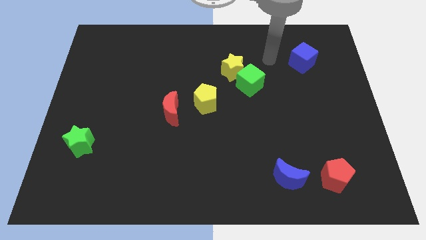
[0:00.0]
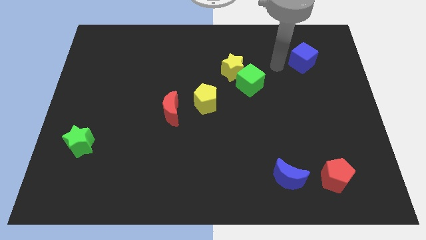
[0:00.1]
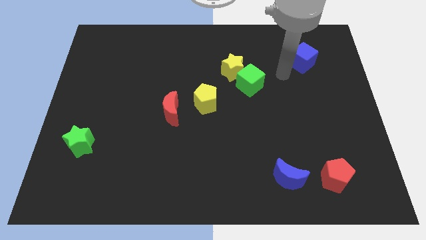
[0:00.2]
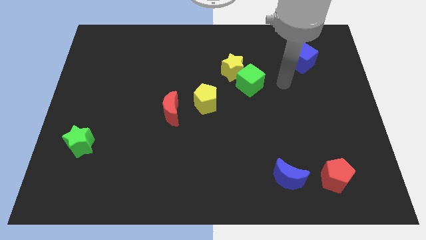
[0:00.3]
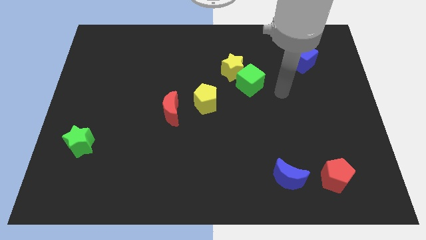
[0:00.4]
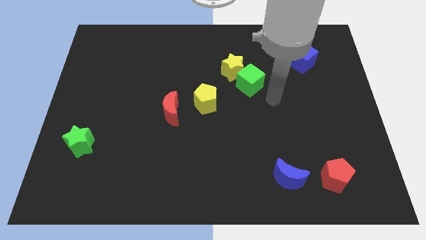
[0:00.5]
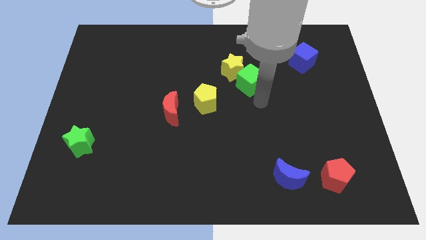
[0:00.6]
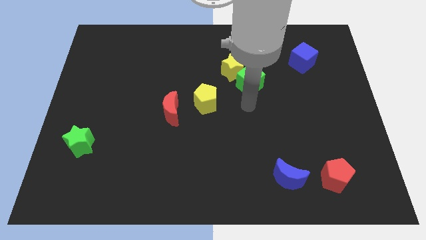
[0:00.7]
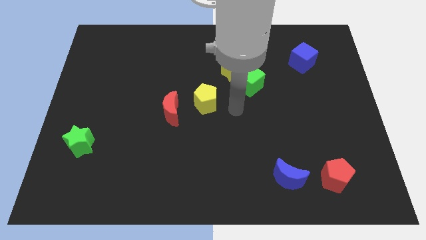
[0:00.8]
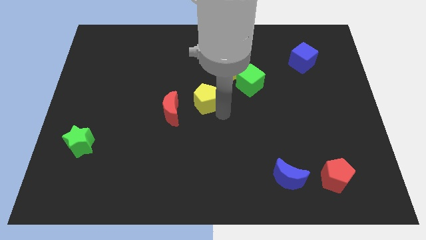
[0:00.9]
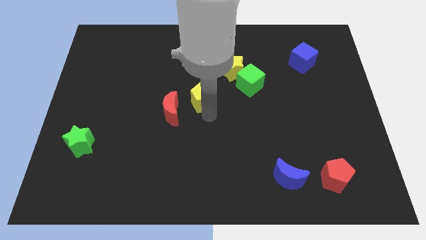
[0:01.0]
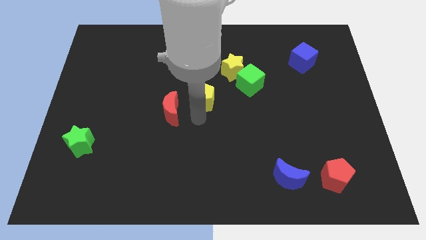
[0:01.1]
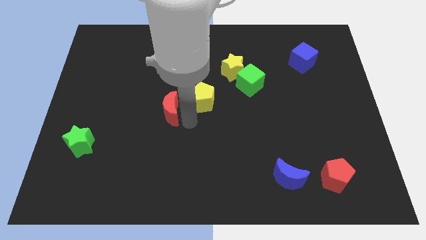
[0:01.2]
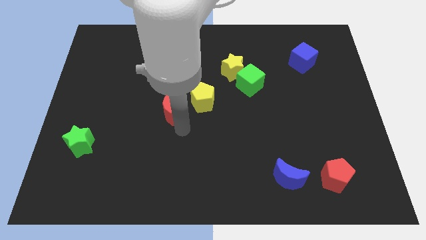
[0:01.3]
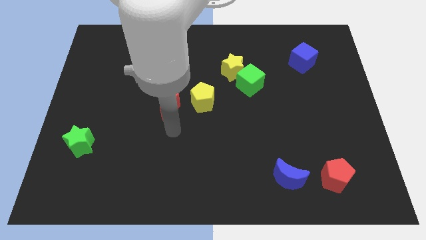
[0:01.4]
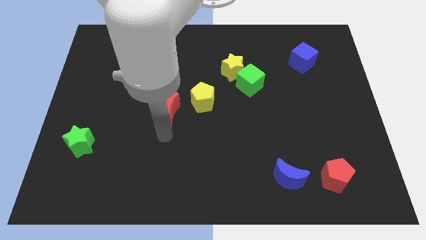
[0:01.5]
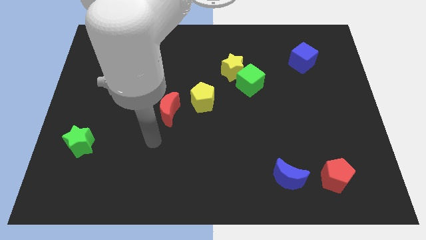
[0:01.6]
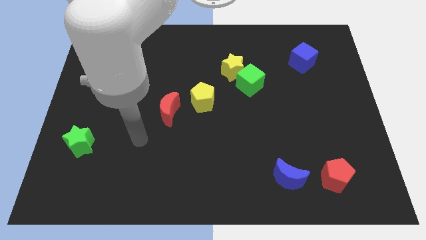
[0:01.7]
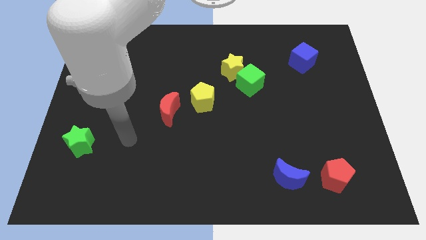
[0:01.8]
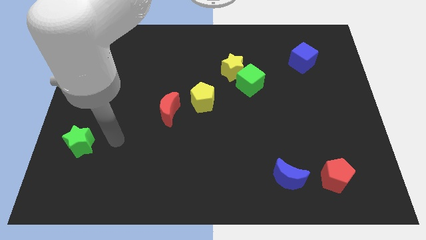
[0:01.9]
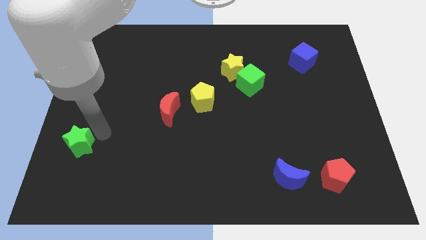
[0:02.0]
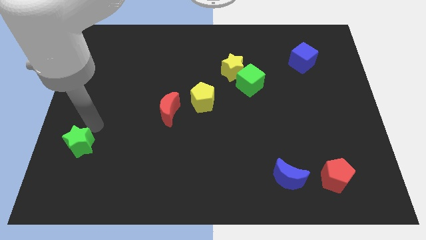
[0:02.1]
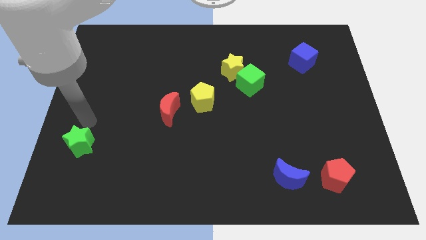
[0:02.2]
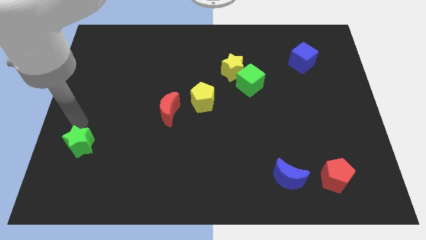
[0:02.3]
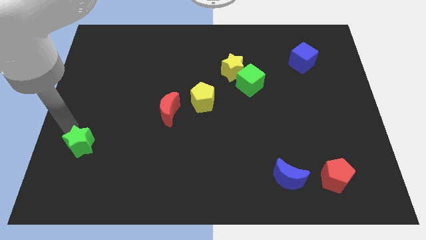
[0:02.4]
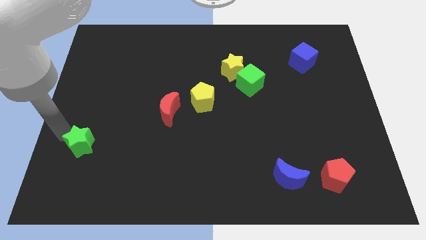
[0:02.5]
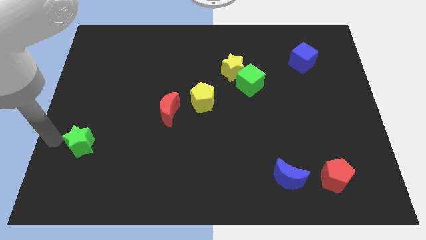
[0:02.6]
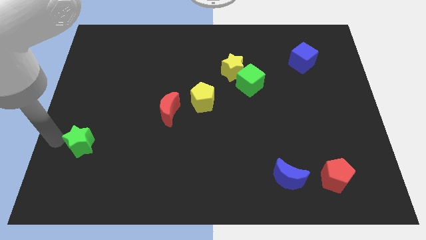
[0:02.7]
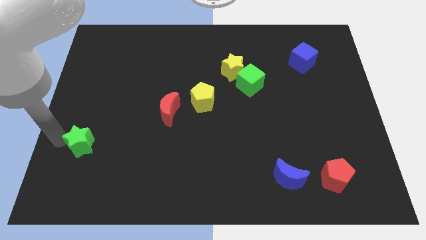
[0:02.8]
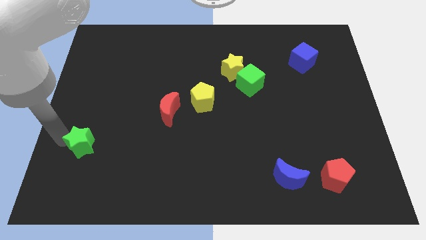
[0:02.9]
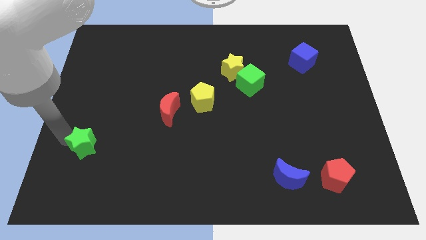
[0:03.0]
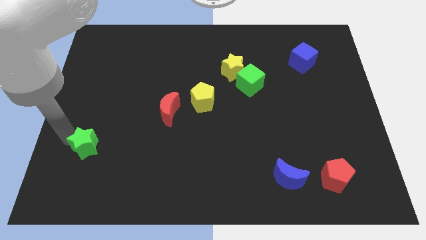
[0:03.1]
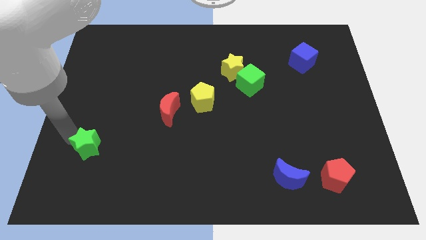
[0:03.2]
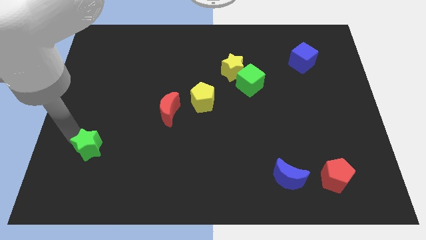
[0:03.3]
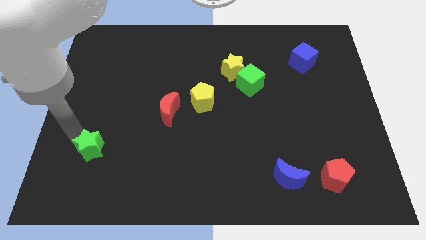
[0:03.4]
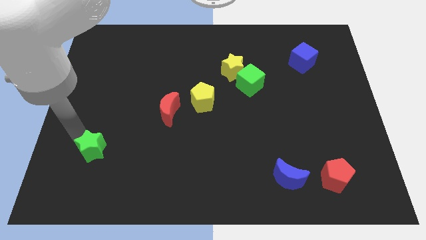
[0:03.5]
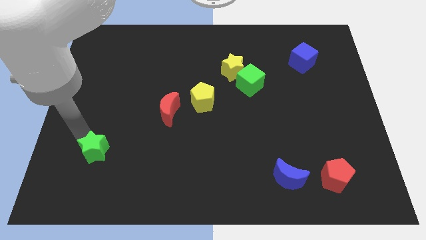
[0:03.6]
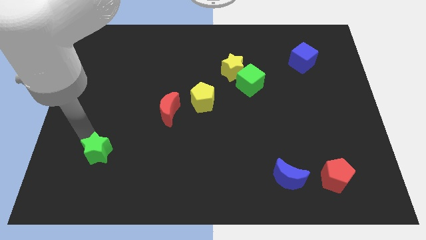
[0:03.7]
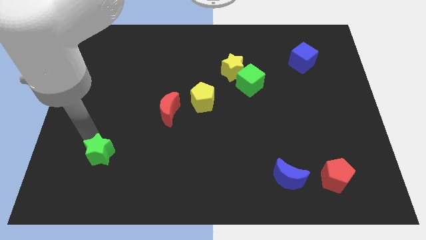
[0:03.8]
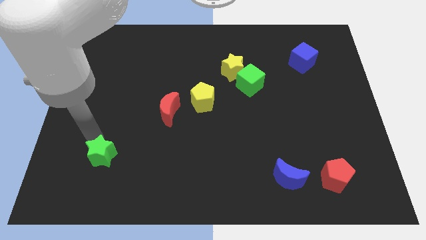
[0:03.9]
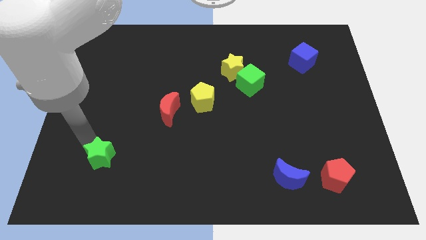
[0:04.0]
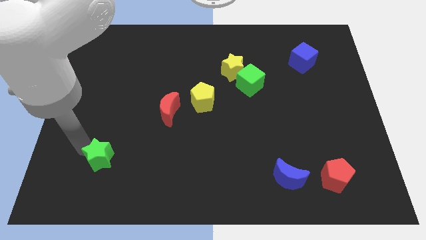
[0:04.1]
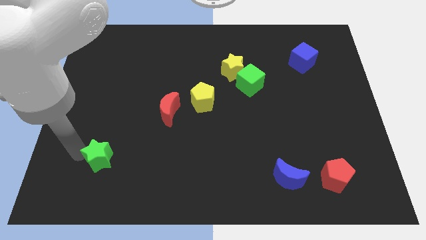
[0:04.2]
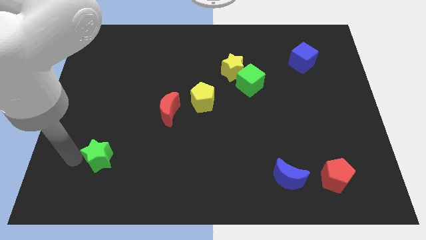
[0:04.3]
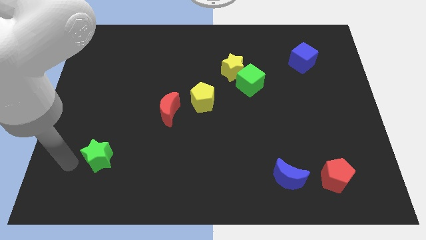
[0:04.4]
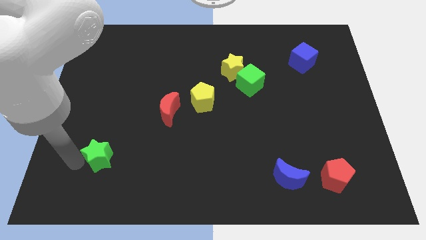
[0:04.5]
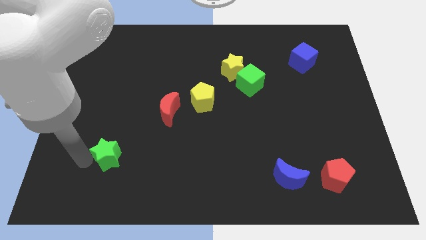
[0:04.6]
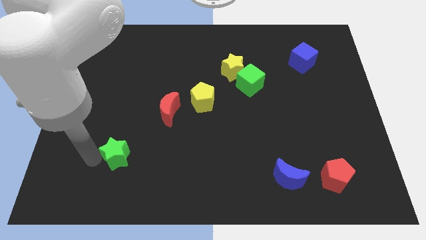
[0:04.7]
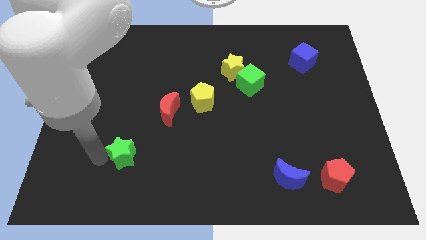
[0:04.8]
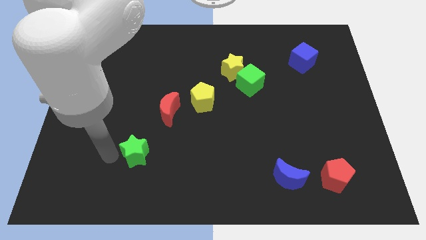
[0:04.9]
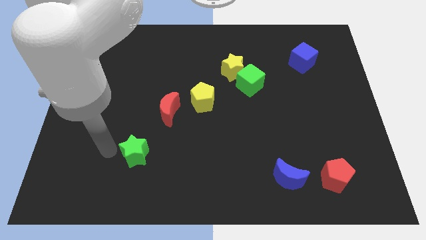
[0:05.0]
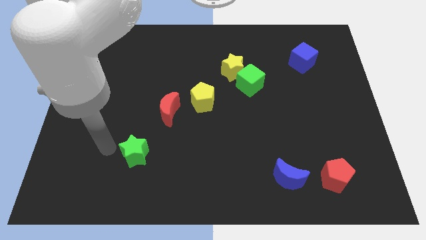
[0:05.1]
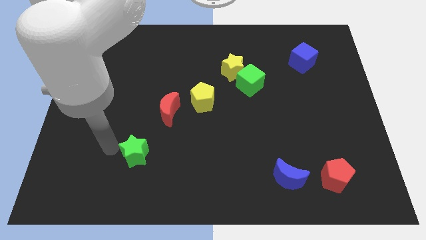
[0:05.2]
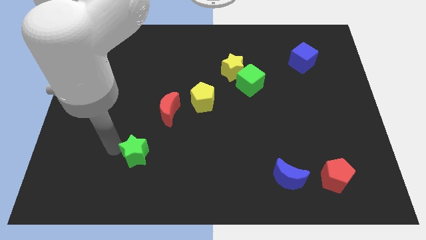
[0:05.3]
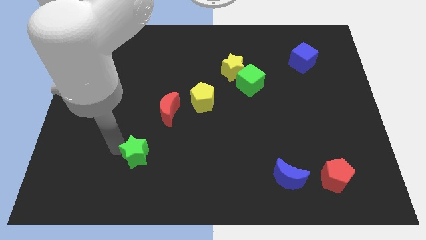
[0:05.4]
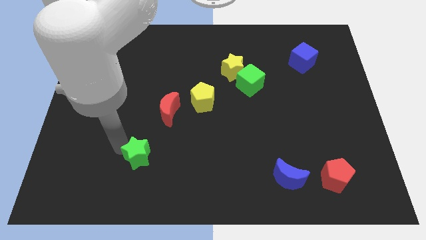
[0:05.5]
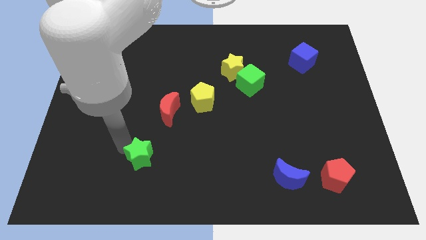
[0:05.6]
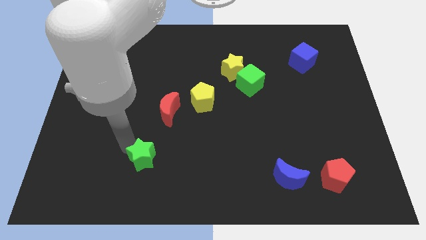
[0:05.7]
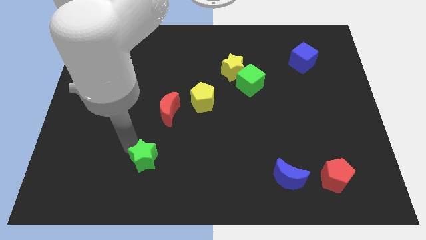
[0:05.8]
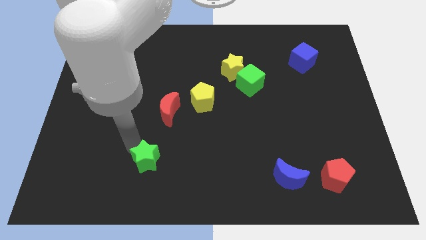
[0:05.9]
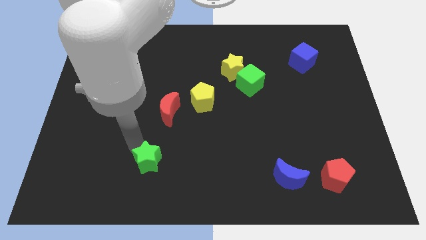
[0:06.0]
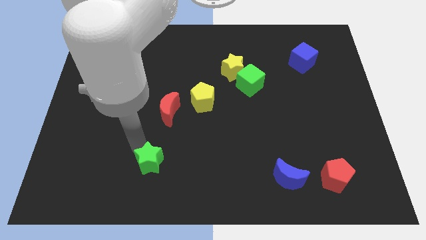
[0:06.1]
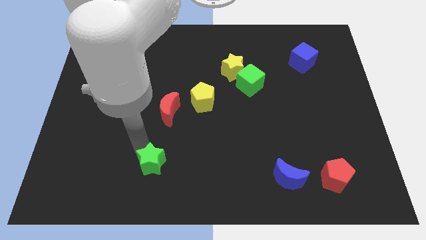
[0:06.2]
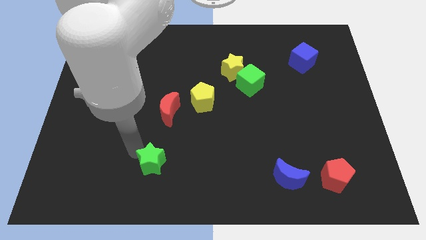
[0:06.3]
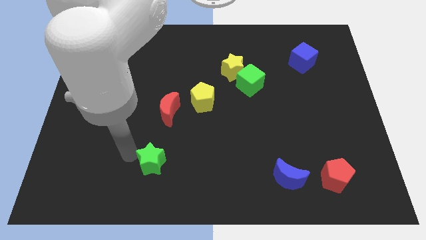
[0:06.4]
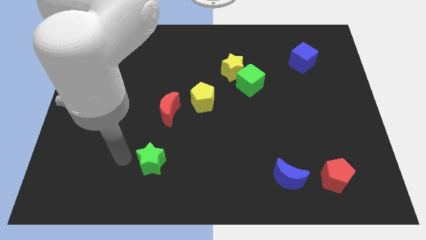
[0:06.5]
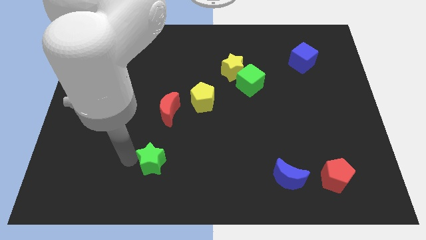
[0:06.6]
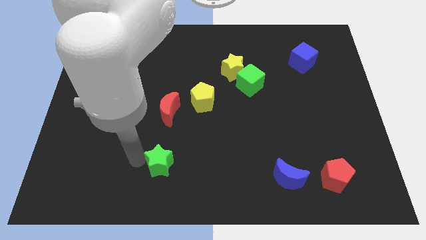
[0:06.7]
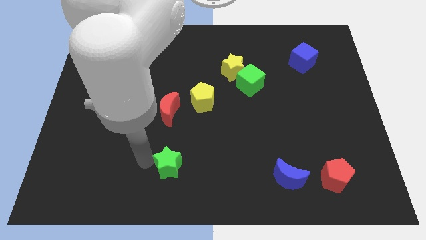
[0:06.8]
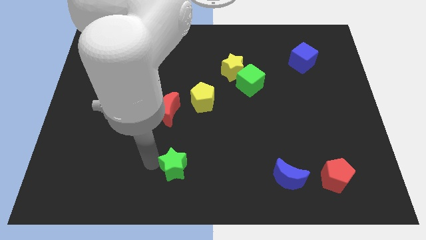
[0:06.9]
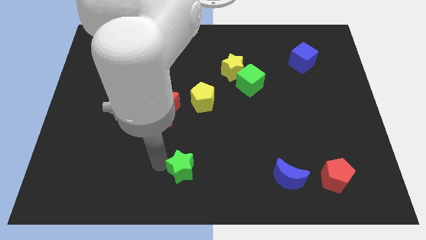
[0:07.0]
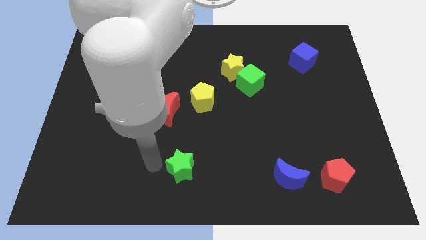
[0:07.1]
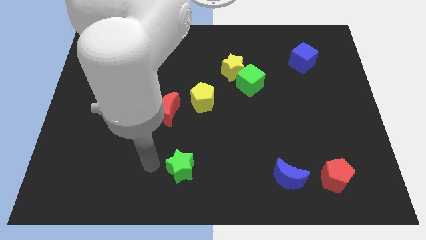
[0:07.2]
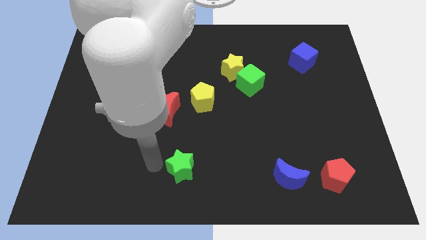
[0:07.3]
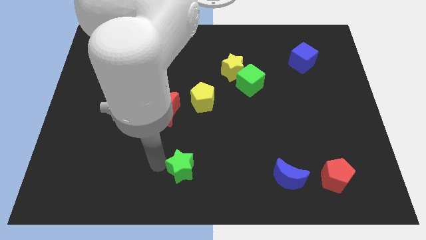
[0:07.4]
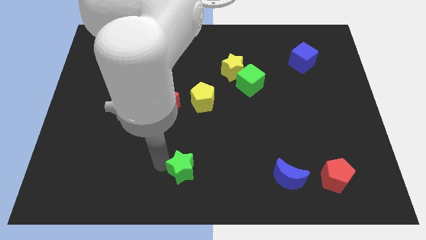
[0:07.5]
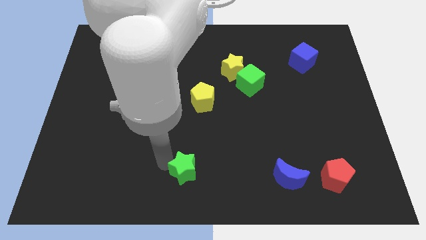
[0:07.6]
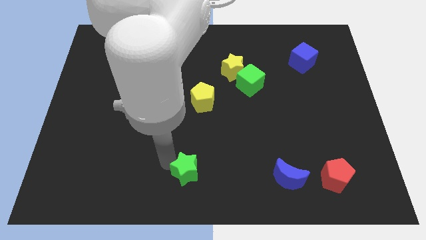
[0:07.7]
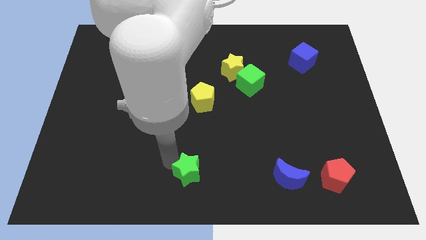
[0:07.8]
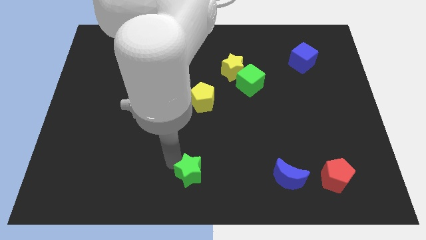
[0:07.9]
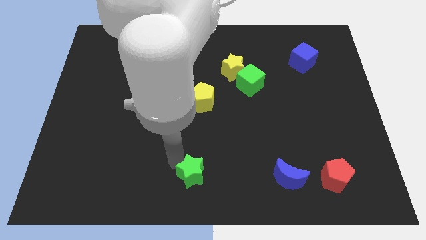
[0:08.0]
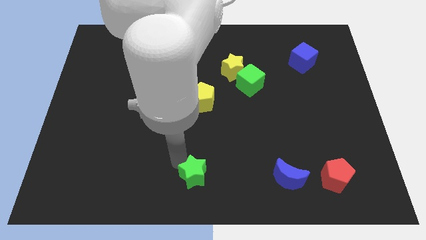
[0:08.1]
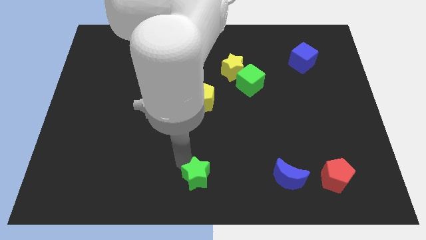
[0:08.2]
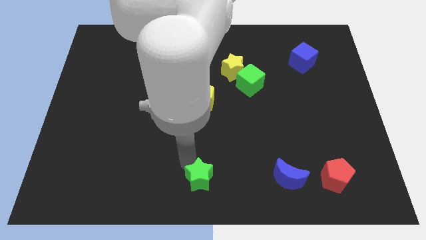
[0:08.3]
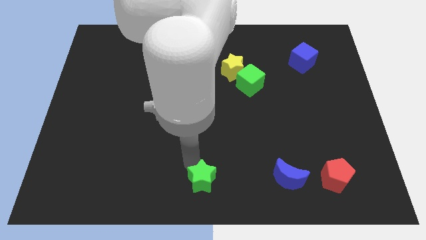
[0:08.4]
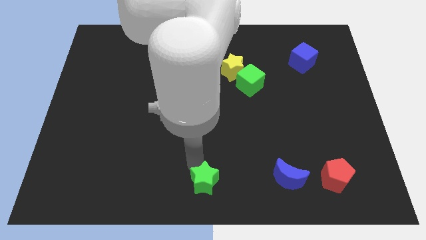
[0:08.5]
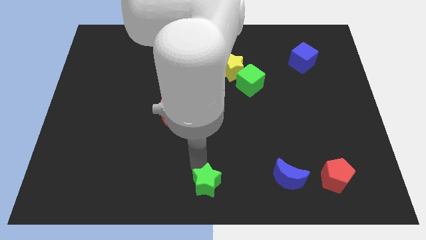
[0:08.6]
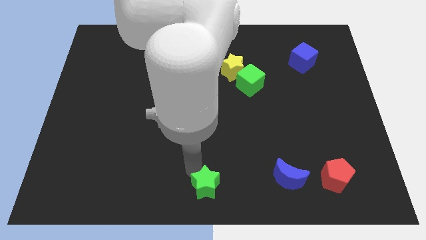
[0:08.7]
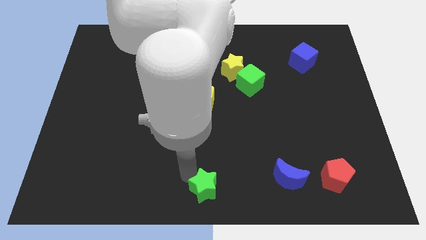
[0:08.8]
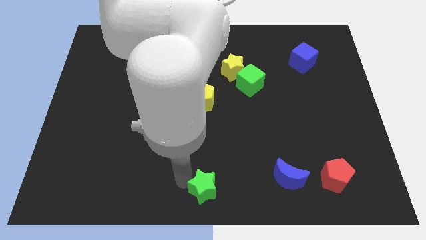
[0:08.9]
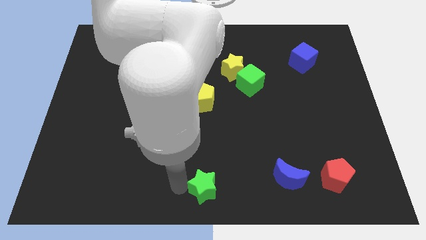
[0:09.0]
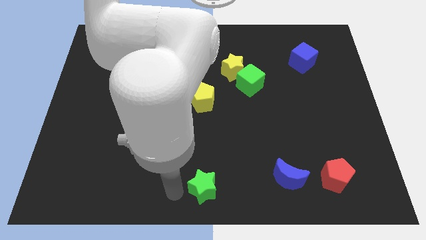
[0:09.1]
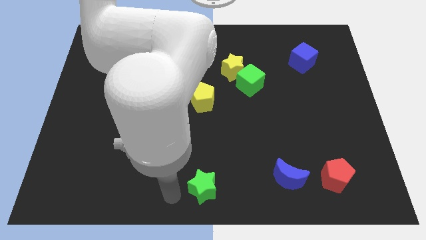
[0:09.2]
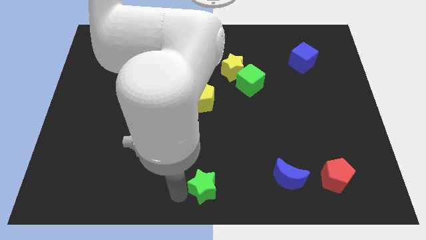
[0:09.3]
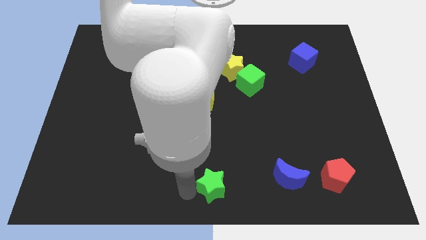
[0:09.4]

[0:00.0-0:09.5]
move the green star just left of the blue moon
